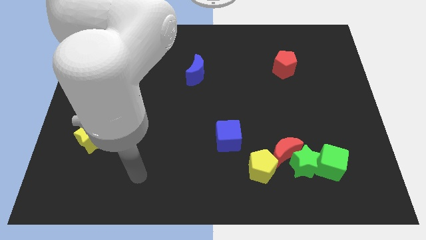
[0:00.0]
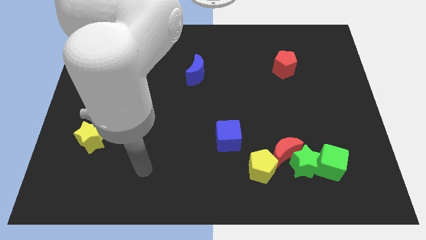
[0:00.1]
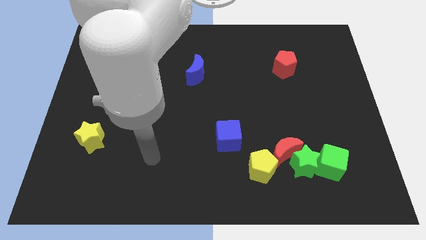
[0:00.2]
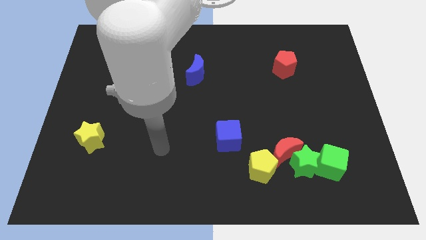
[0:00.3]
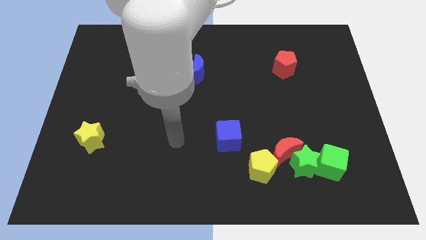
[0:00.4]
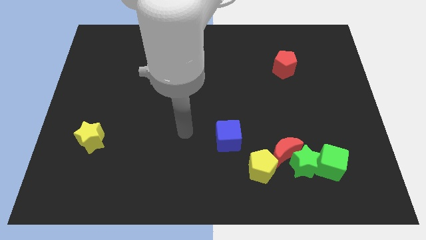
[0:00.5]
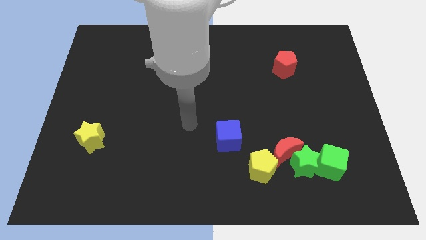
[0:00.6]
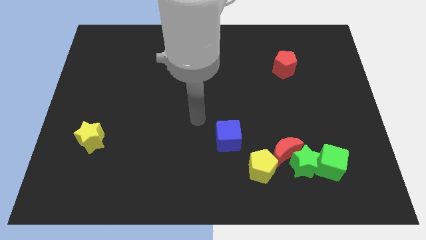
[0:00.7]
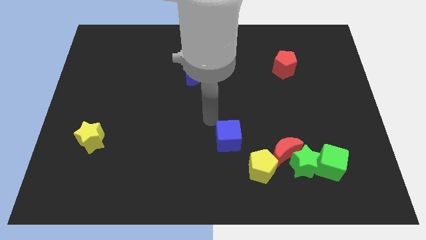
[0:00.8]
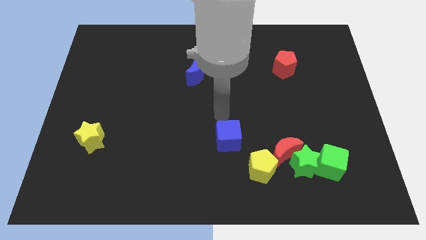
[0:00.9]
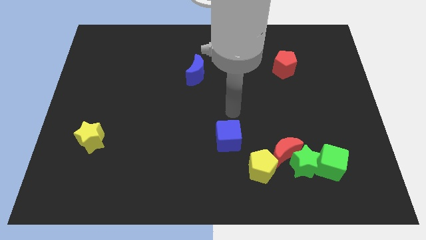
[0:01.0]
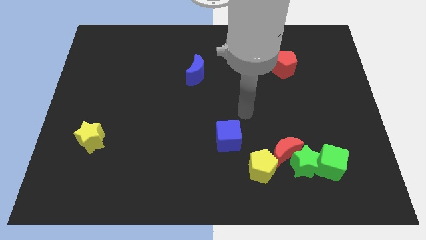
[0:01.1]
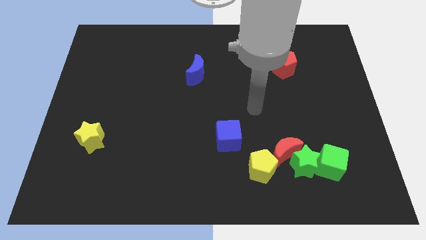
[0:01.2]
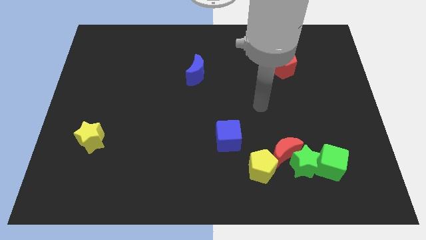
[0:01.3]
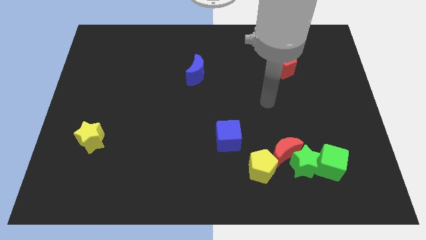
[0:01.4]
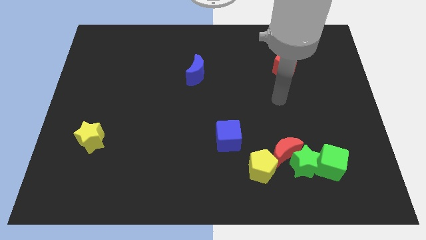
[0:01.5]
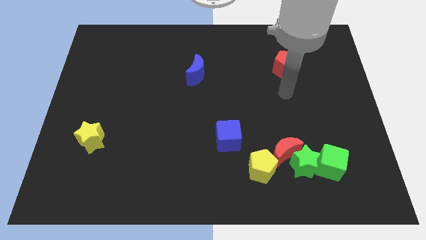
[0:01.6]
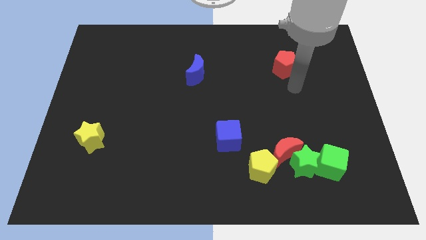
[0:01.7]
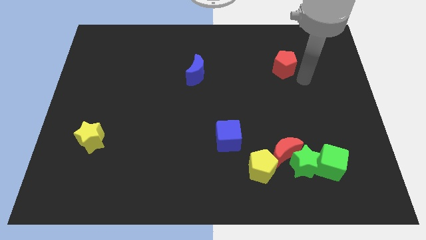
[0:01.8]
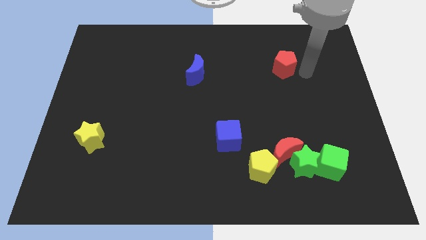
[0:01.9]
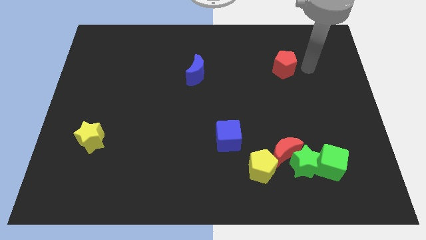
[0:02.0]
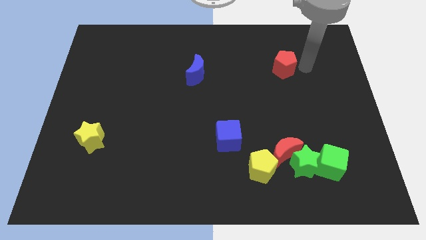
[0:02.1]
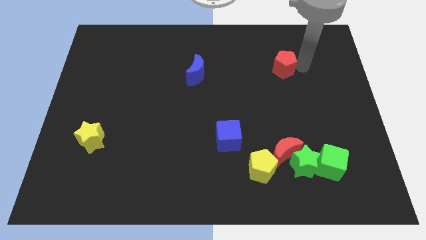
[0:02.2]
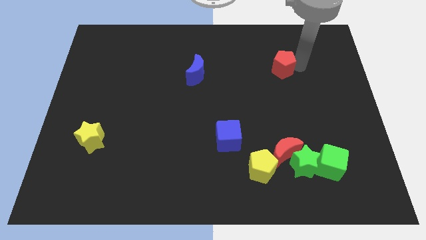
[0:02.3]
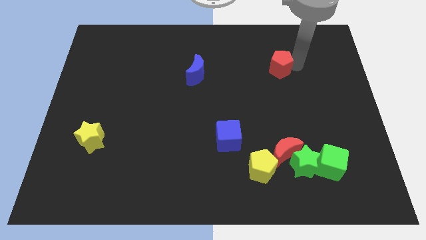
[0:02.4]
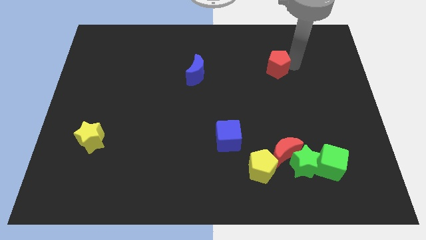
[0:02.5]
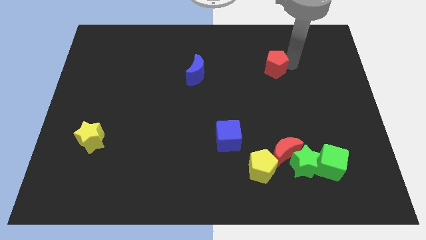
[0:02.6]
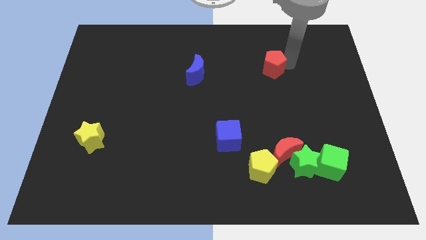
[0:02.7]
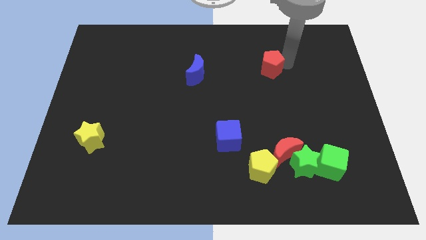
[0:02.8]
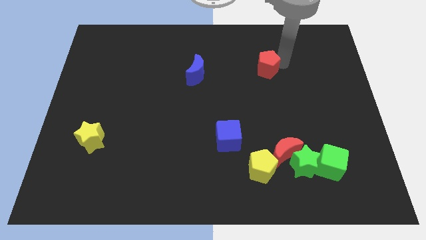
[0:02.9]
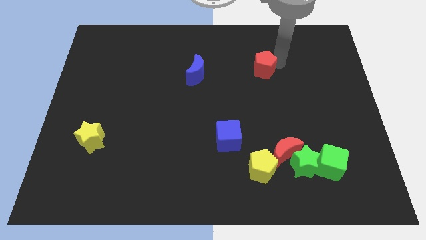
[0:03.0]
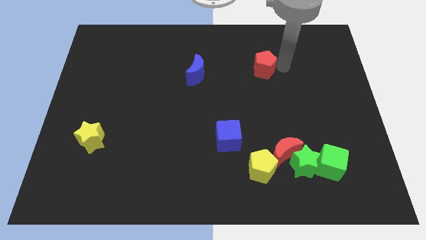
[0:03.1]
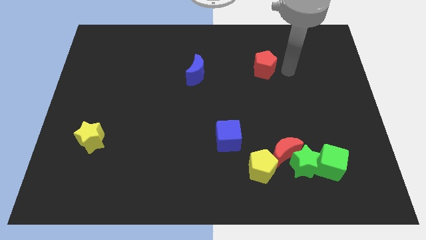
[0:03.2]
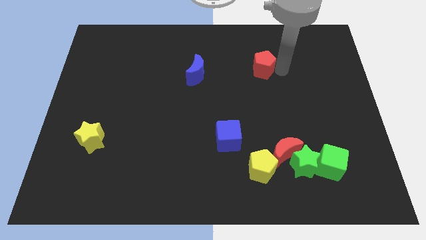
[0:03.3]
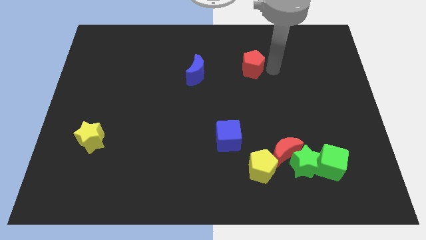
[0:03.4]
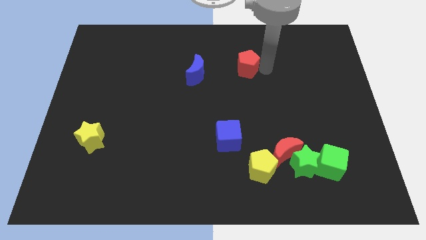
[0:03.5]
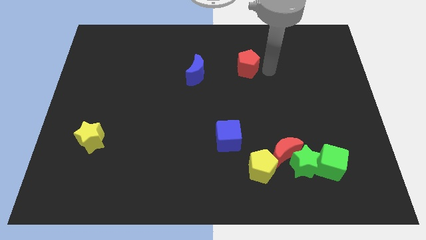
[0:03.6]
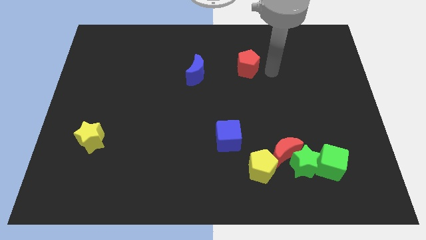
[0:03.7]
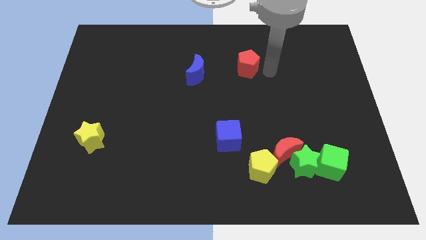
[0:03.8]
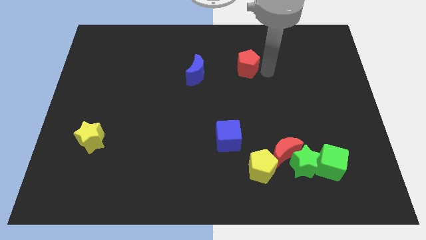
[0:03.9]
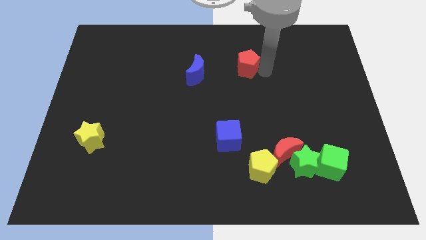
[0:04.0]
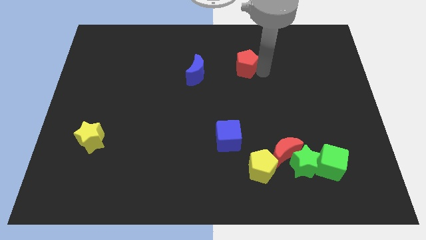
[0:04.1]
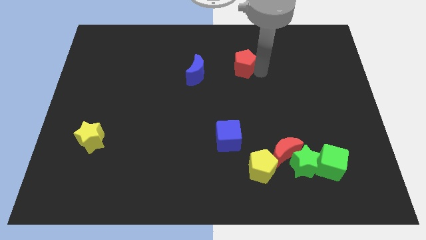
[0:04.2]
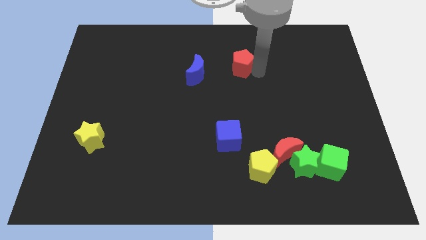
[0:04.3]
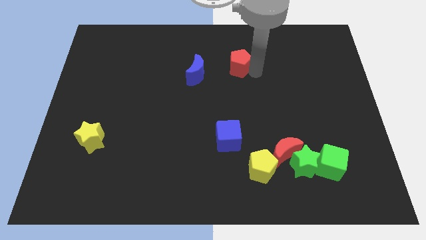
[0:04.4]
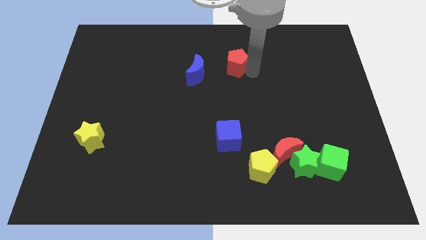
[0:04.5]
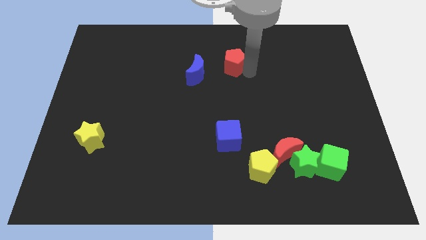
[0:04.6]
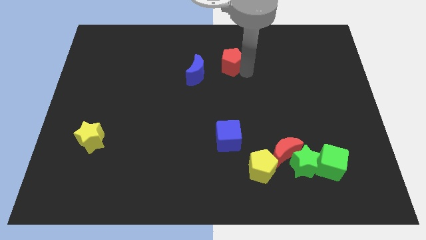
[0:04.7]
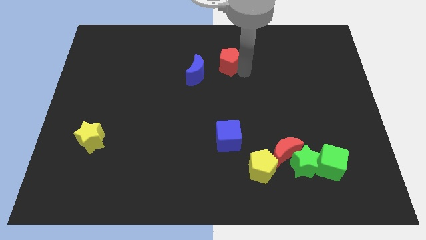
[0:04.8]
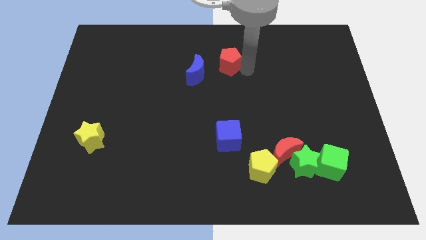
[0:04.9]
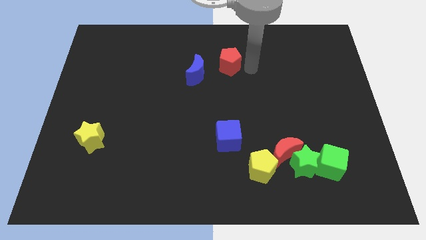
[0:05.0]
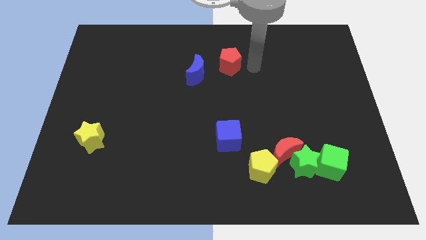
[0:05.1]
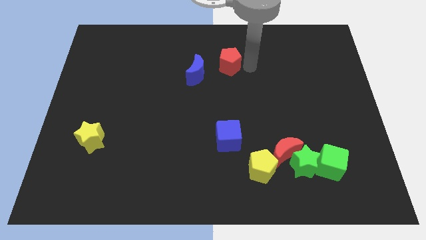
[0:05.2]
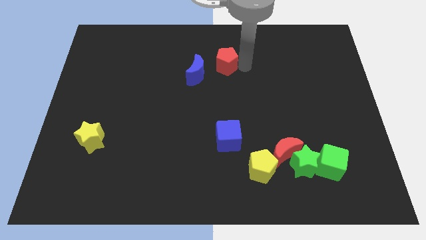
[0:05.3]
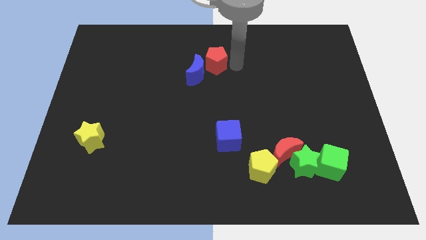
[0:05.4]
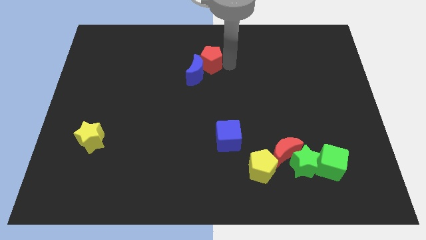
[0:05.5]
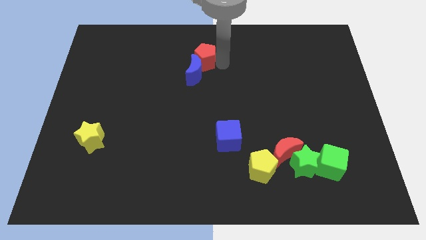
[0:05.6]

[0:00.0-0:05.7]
push the red pentagon to the left

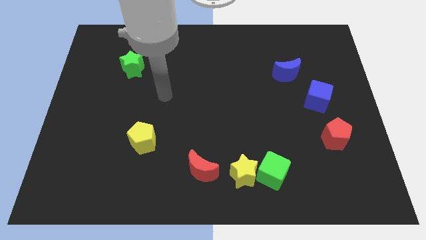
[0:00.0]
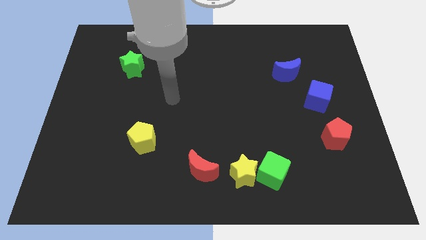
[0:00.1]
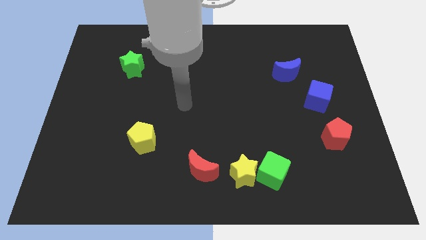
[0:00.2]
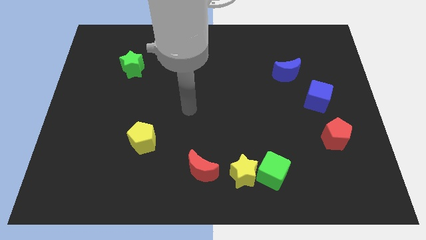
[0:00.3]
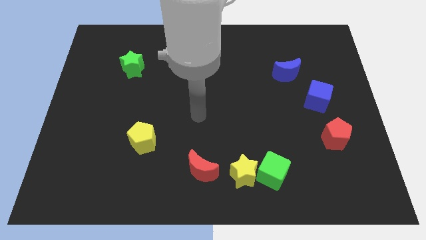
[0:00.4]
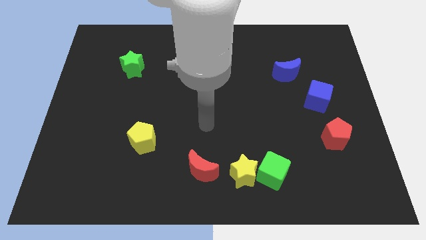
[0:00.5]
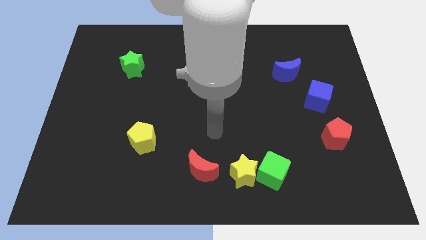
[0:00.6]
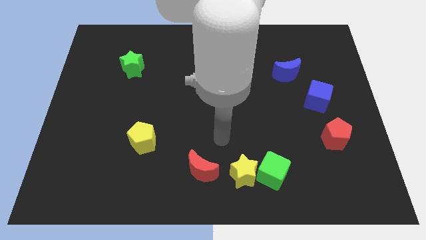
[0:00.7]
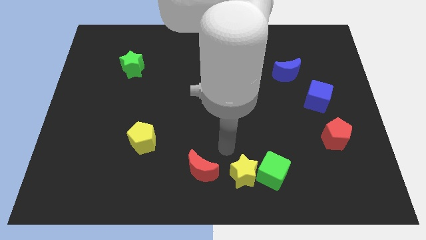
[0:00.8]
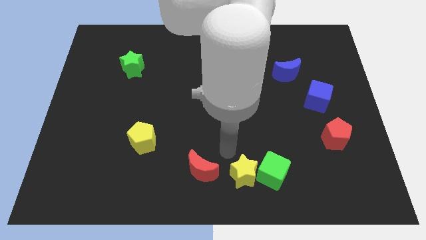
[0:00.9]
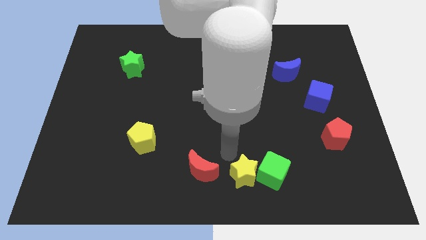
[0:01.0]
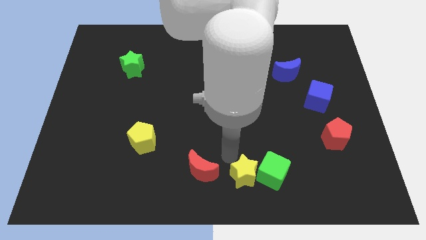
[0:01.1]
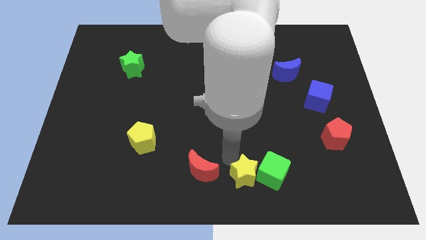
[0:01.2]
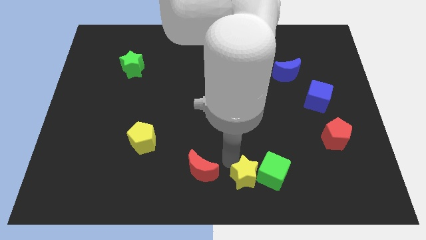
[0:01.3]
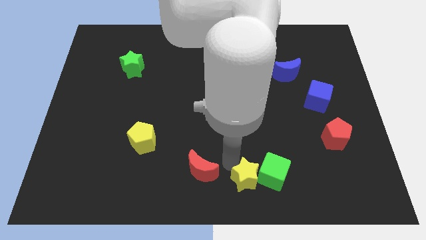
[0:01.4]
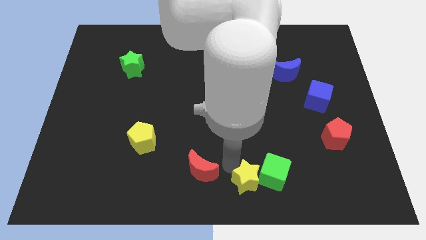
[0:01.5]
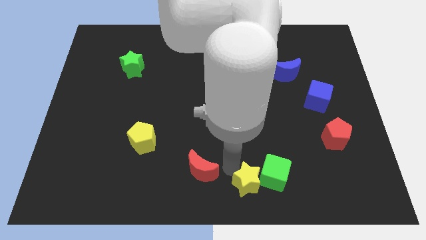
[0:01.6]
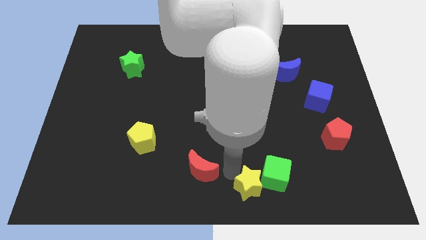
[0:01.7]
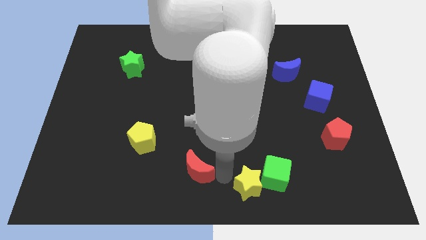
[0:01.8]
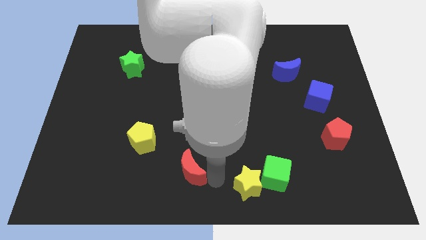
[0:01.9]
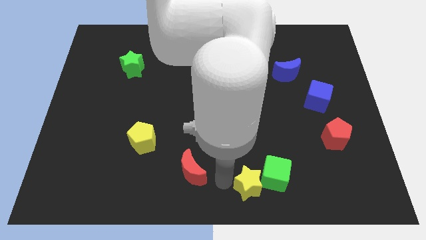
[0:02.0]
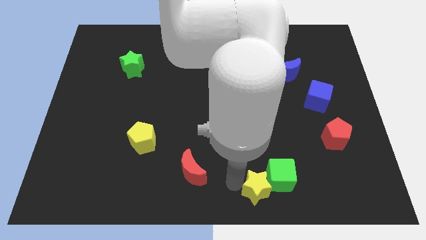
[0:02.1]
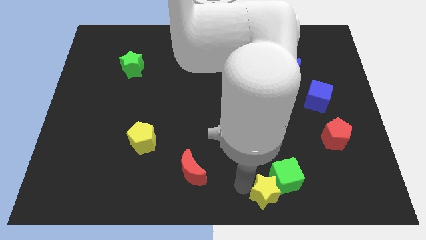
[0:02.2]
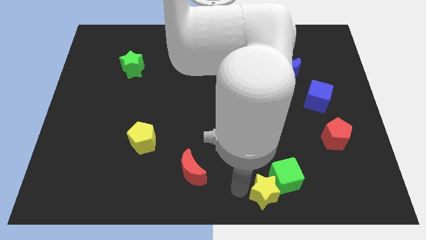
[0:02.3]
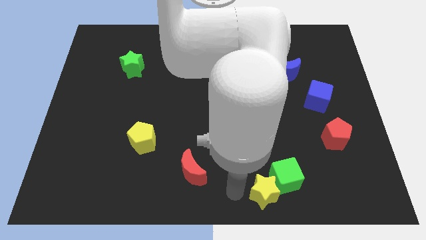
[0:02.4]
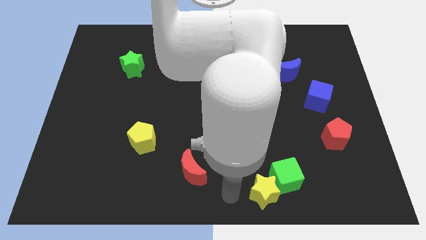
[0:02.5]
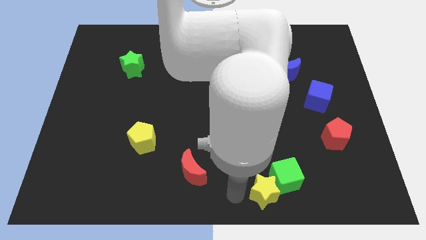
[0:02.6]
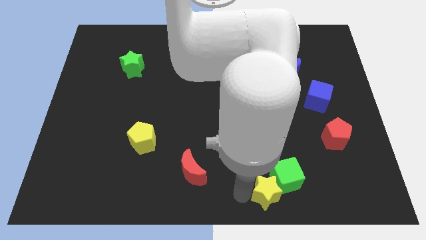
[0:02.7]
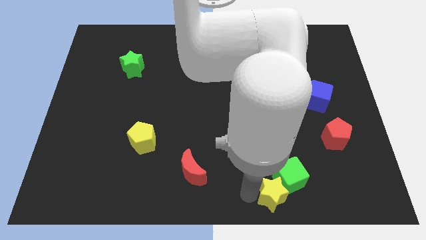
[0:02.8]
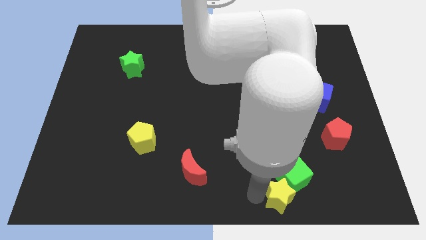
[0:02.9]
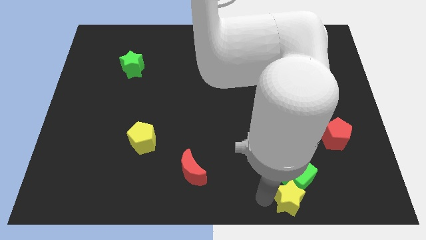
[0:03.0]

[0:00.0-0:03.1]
slightly slide the yellow star to the right
